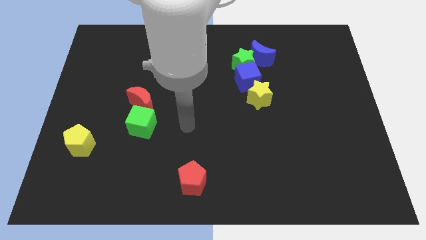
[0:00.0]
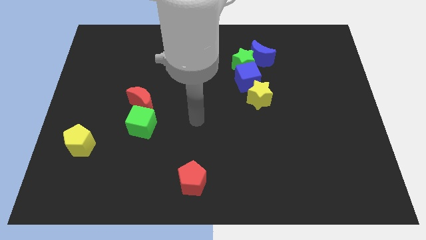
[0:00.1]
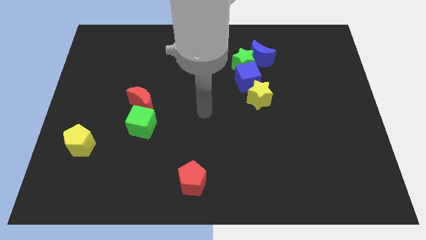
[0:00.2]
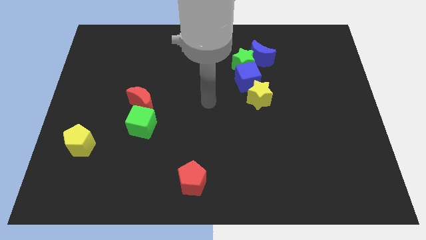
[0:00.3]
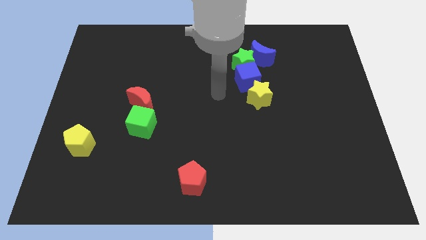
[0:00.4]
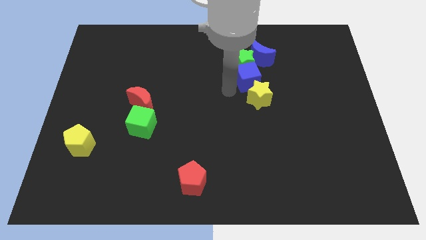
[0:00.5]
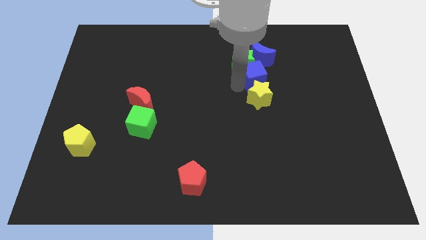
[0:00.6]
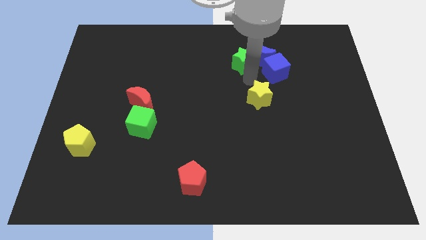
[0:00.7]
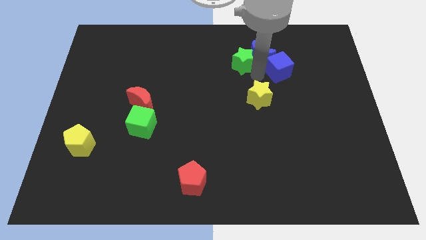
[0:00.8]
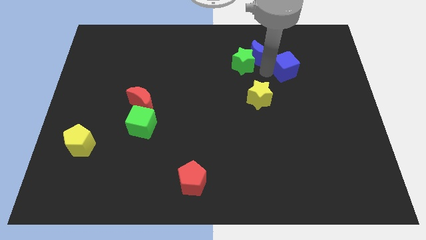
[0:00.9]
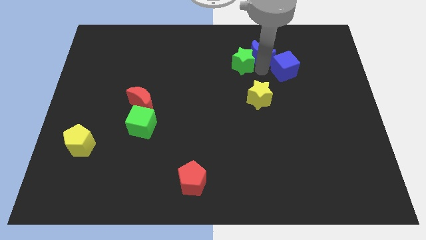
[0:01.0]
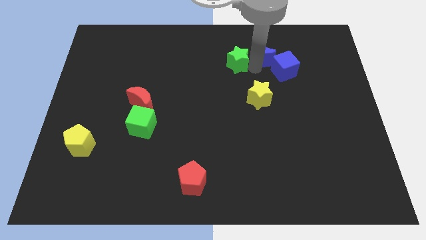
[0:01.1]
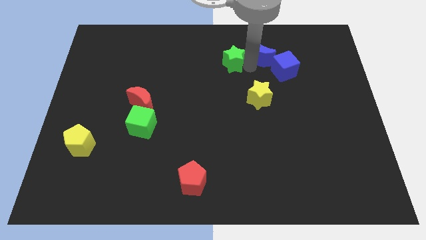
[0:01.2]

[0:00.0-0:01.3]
move the green star away from the blue cube and blue moon

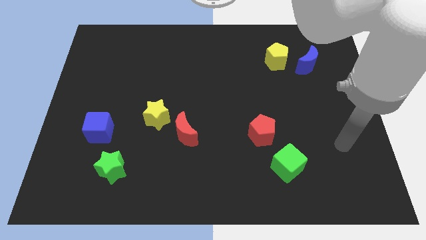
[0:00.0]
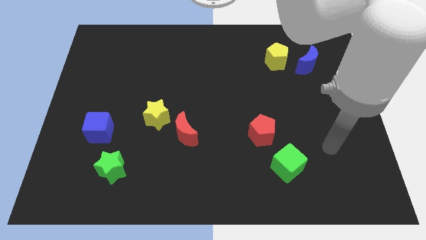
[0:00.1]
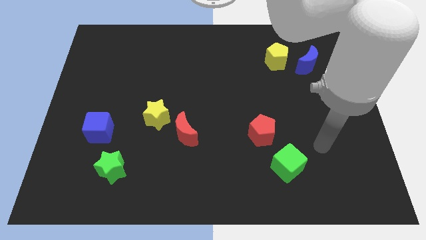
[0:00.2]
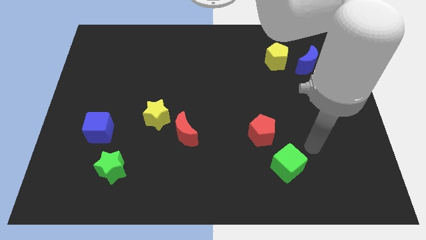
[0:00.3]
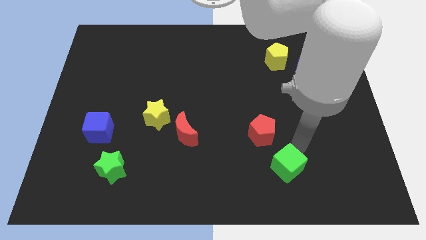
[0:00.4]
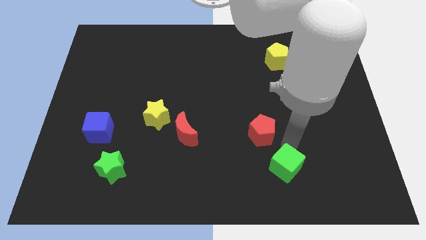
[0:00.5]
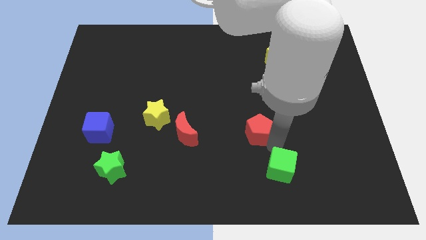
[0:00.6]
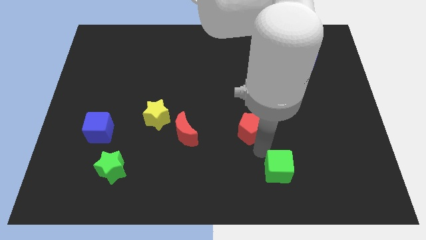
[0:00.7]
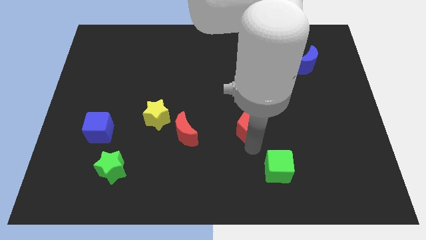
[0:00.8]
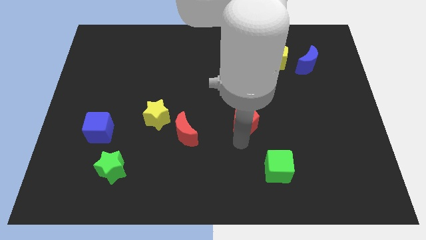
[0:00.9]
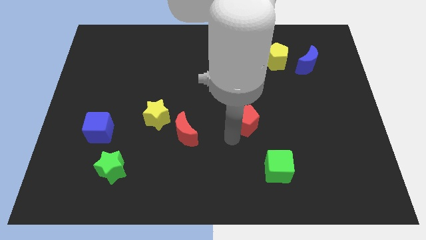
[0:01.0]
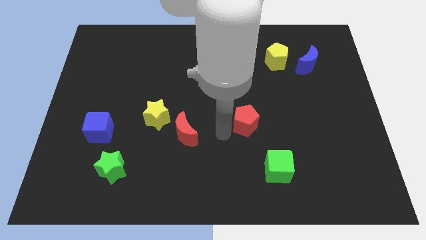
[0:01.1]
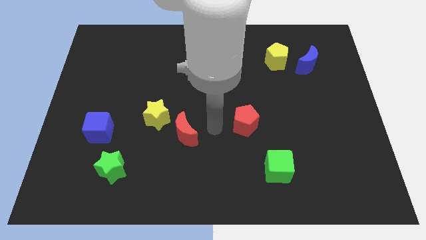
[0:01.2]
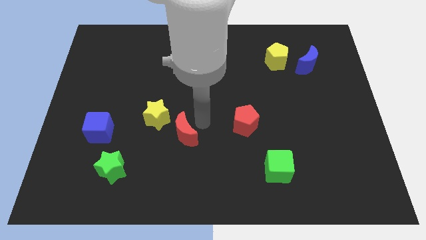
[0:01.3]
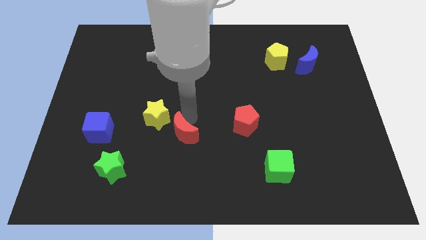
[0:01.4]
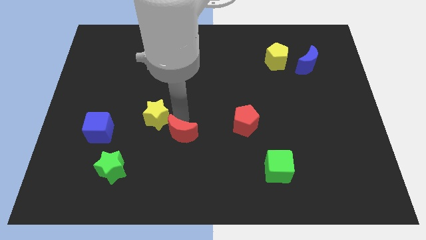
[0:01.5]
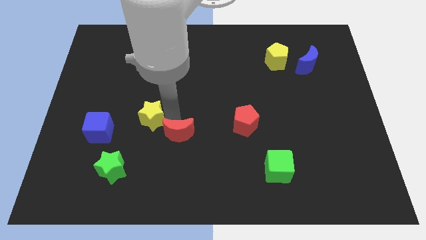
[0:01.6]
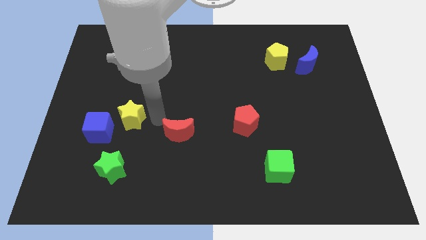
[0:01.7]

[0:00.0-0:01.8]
separate the red moon from the yellow star

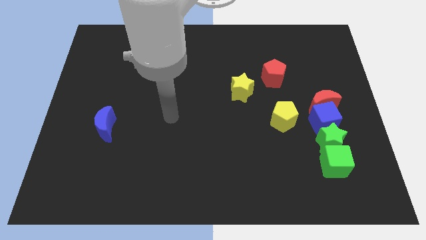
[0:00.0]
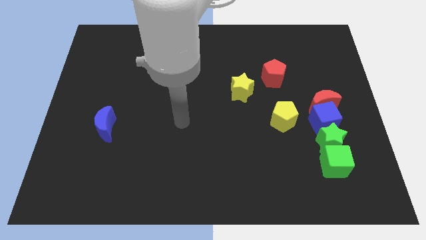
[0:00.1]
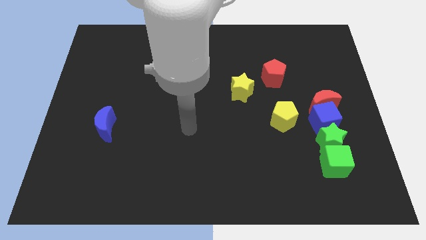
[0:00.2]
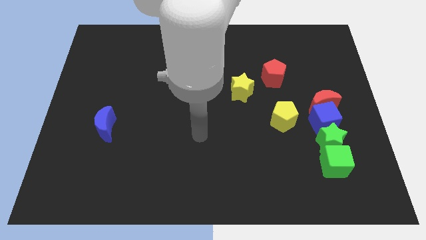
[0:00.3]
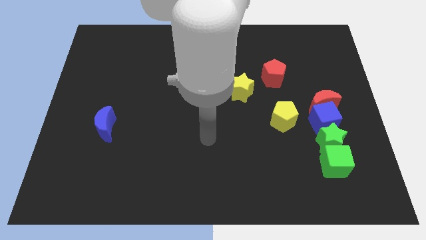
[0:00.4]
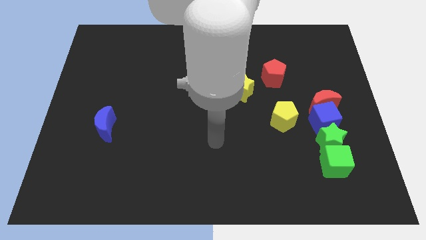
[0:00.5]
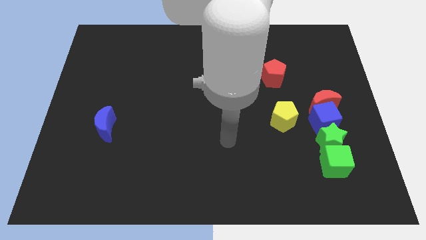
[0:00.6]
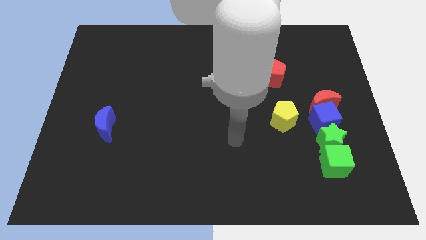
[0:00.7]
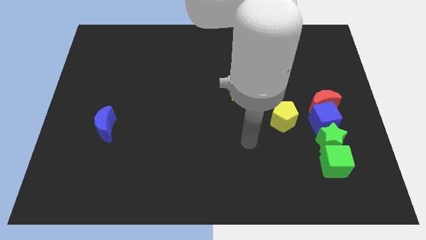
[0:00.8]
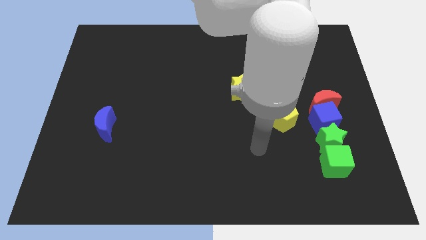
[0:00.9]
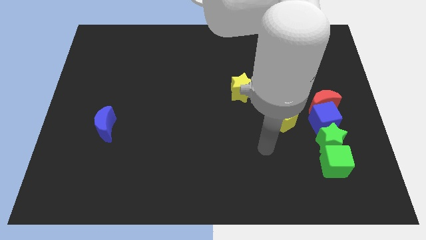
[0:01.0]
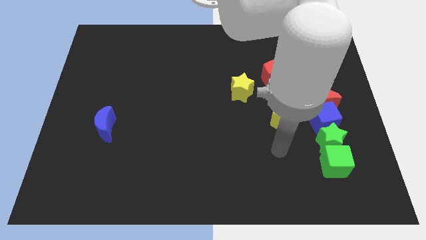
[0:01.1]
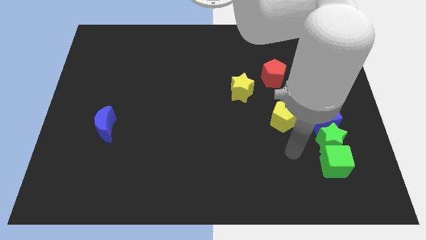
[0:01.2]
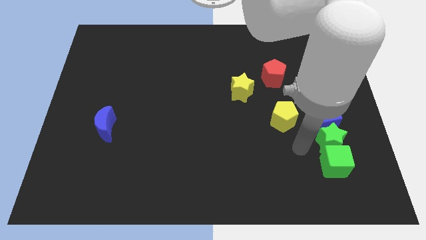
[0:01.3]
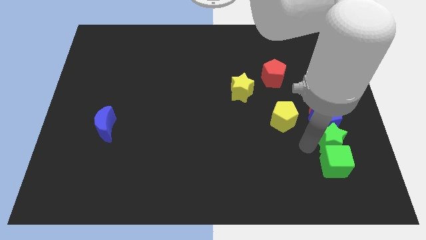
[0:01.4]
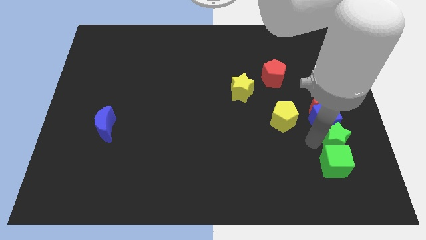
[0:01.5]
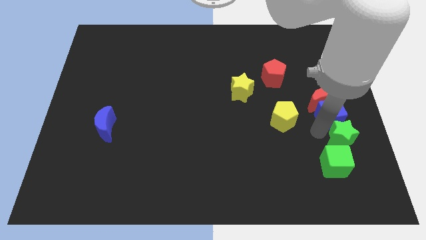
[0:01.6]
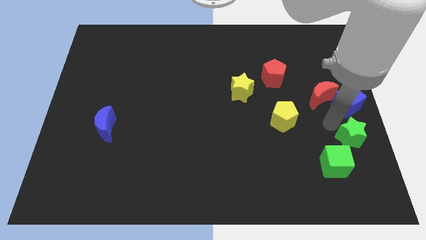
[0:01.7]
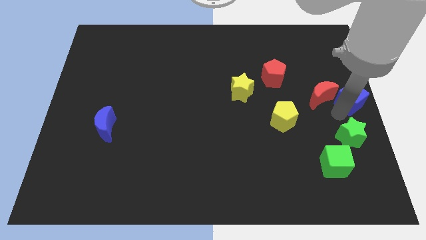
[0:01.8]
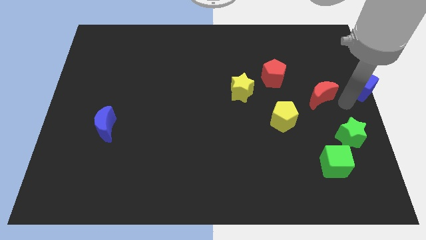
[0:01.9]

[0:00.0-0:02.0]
move the red moon away from the blue cube

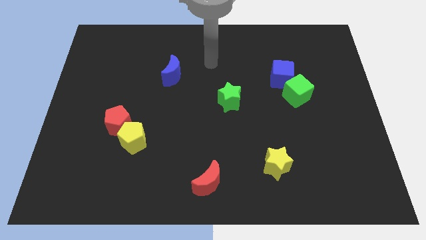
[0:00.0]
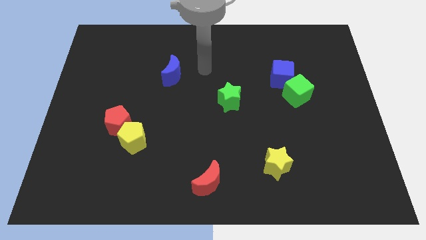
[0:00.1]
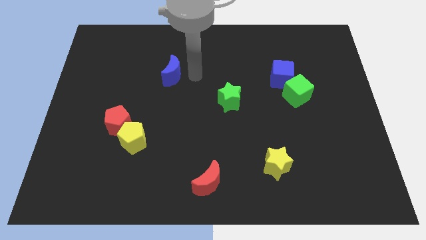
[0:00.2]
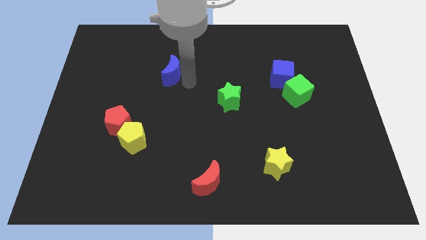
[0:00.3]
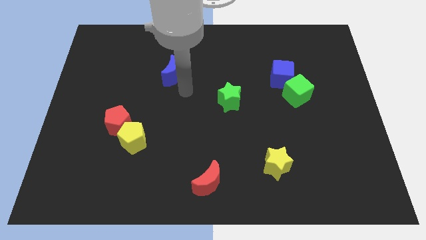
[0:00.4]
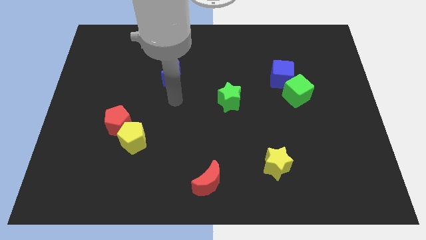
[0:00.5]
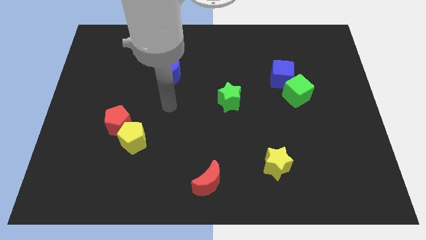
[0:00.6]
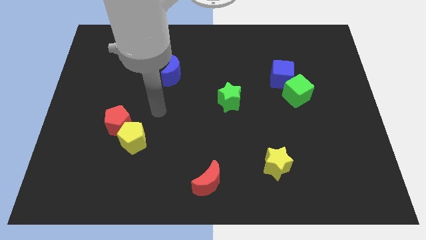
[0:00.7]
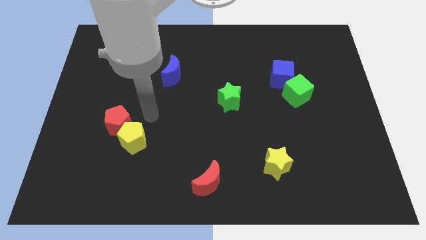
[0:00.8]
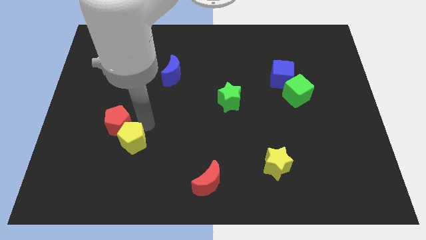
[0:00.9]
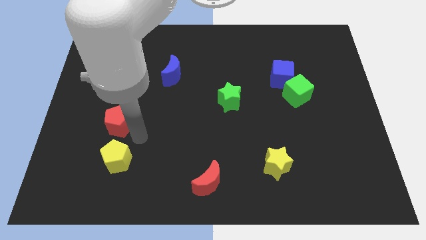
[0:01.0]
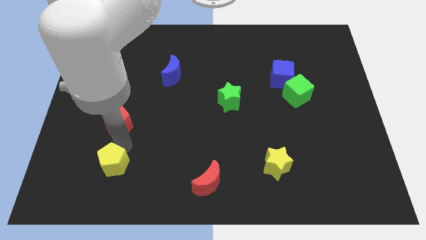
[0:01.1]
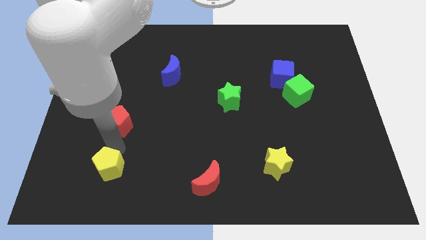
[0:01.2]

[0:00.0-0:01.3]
separate the red pentagon from the yellow pentagon

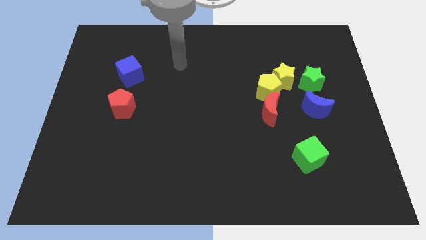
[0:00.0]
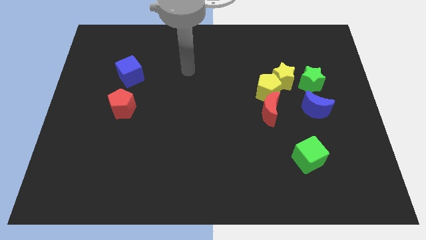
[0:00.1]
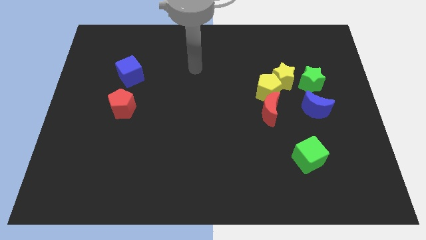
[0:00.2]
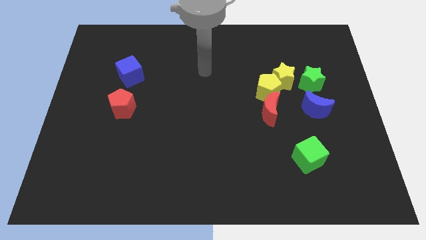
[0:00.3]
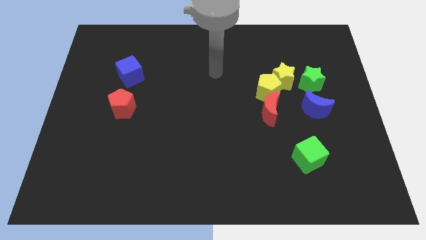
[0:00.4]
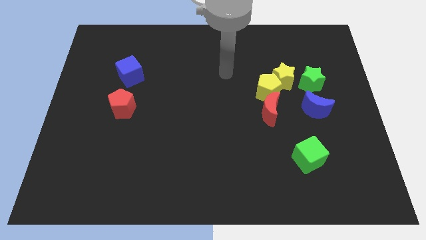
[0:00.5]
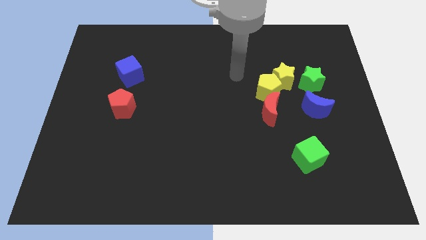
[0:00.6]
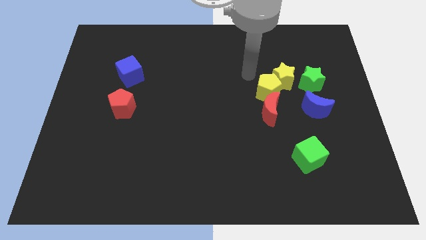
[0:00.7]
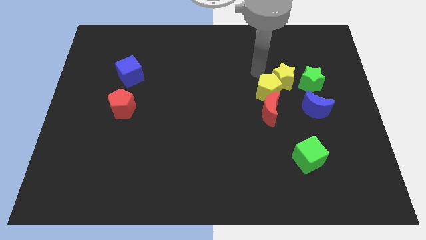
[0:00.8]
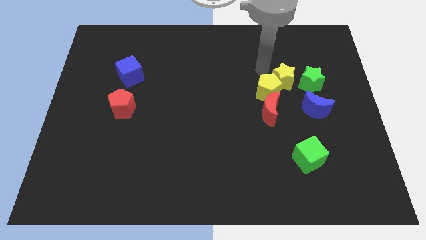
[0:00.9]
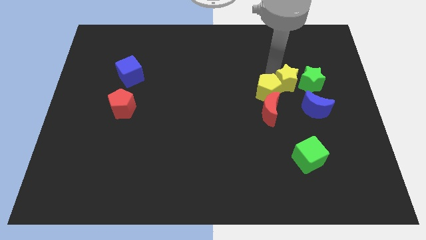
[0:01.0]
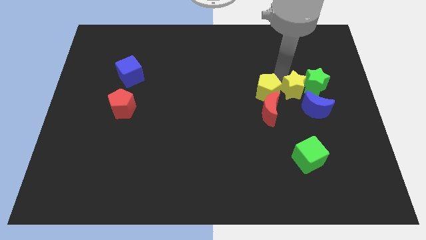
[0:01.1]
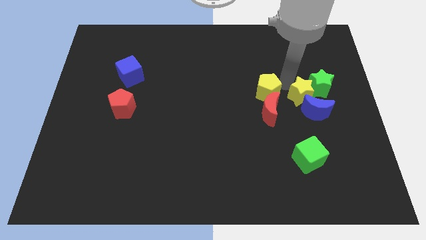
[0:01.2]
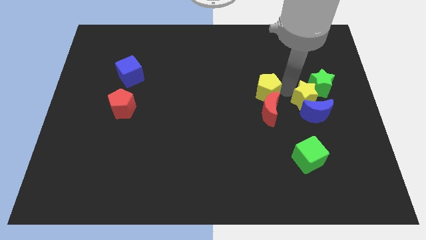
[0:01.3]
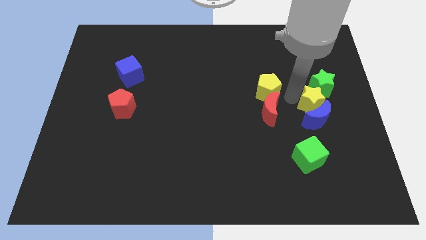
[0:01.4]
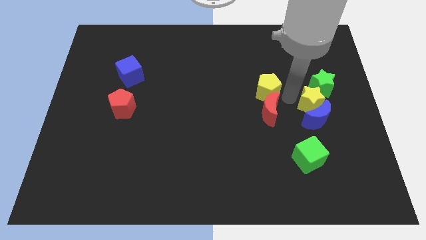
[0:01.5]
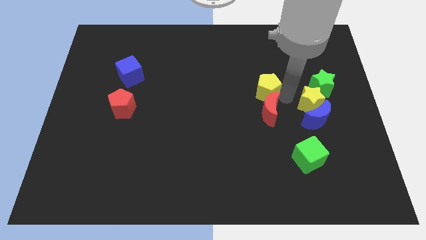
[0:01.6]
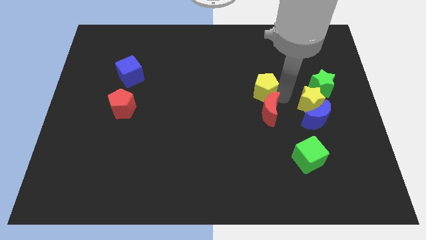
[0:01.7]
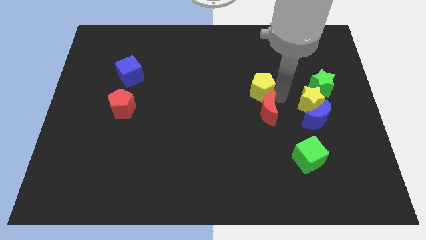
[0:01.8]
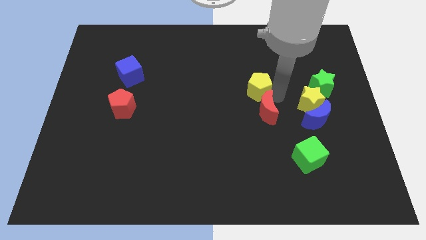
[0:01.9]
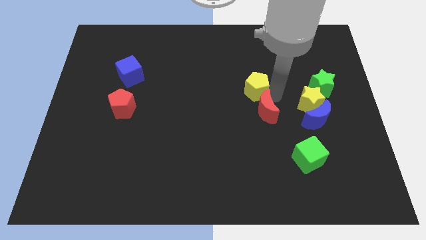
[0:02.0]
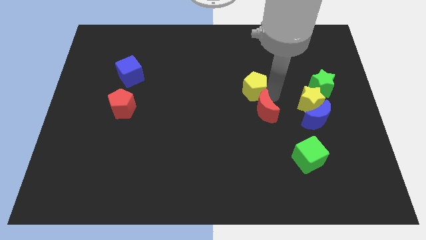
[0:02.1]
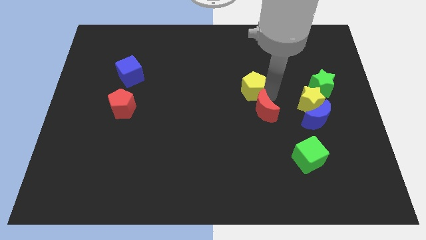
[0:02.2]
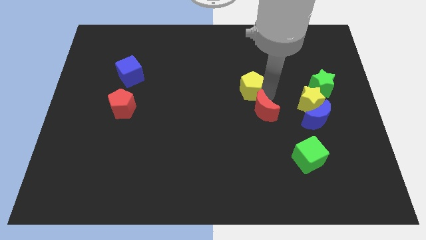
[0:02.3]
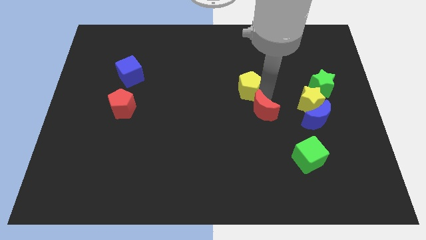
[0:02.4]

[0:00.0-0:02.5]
move the yellow pentagon away from the yellow star and red moon

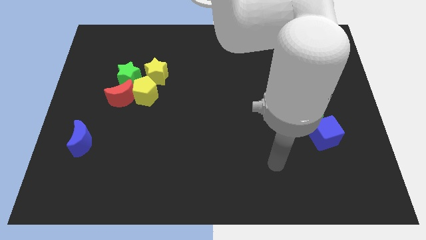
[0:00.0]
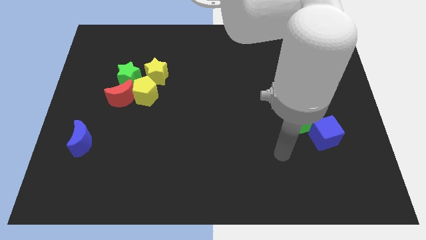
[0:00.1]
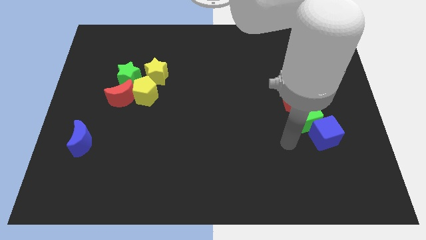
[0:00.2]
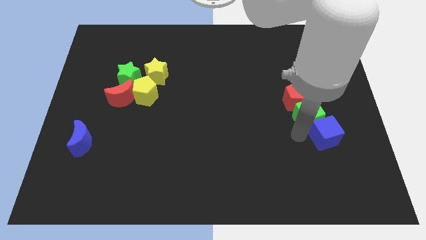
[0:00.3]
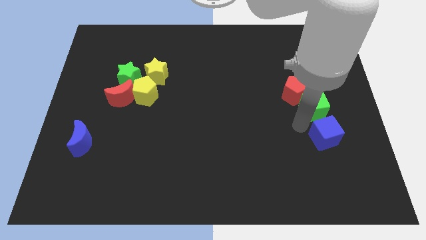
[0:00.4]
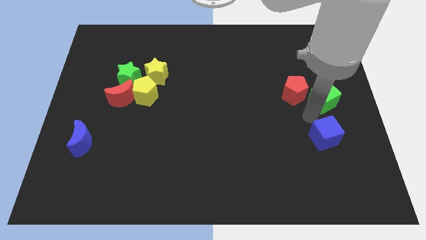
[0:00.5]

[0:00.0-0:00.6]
separate the blue cube from the green cube
